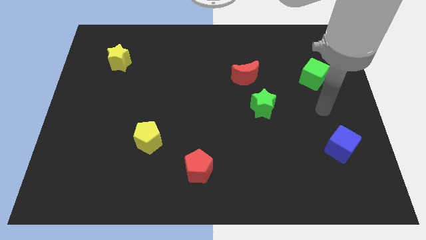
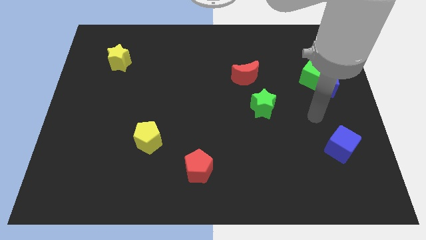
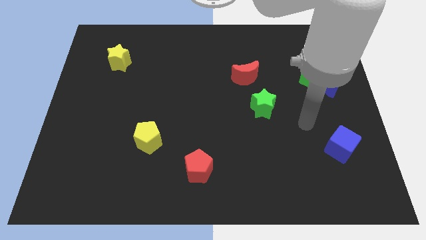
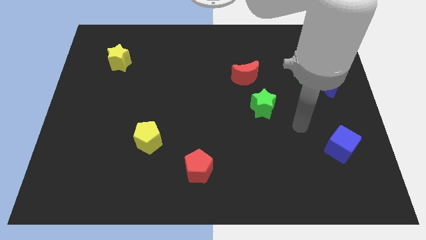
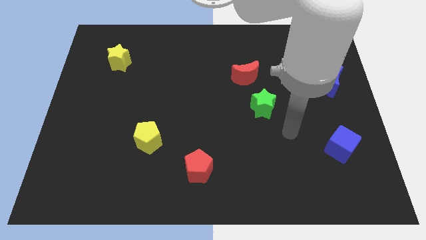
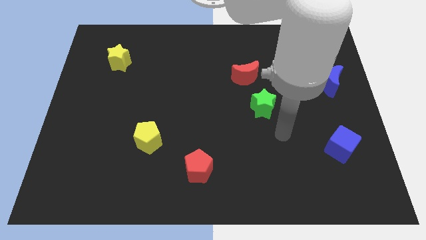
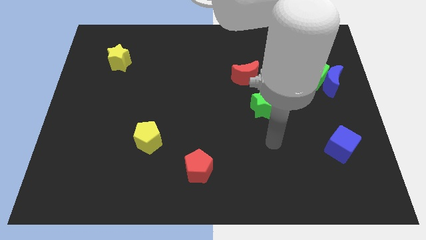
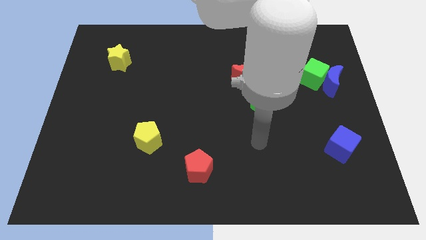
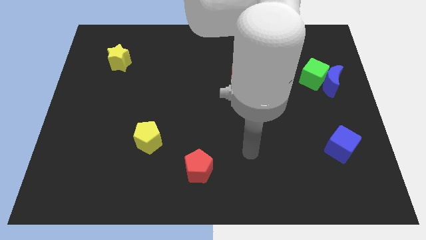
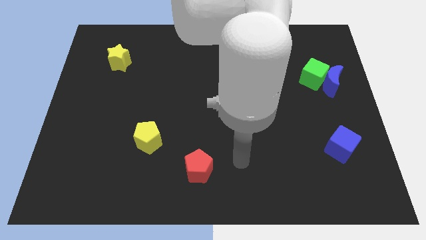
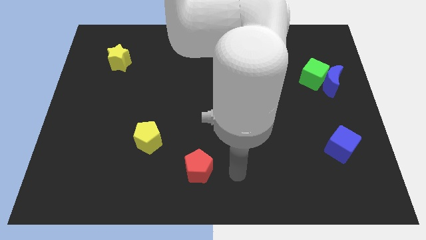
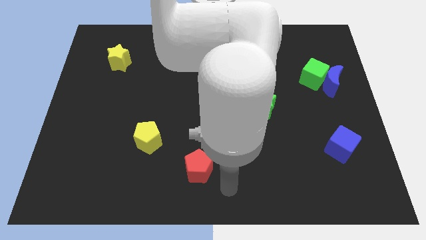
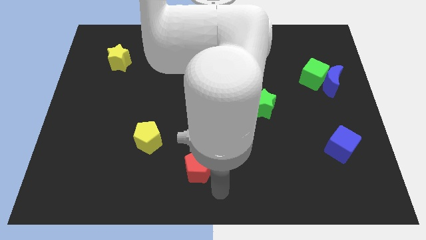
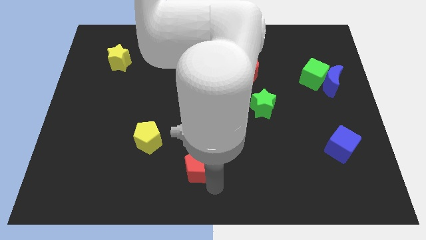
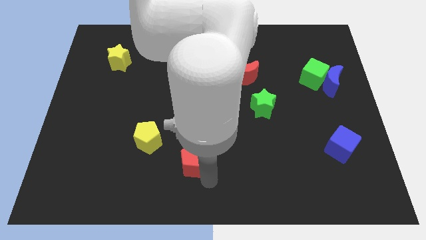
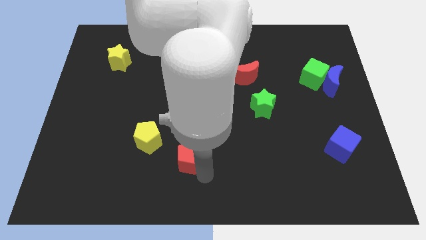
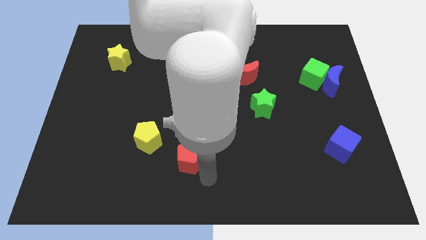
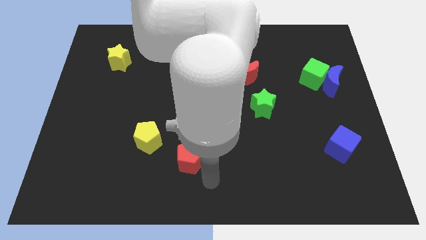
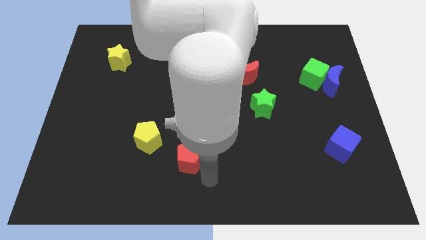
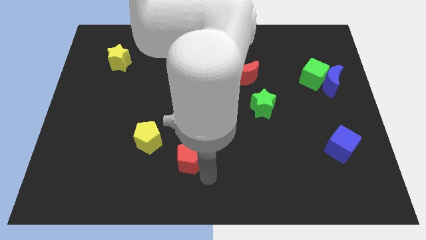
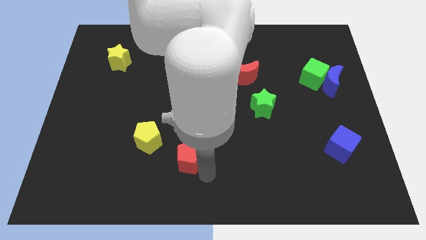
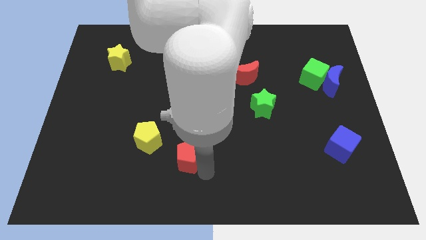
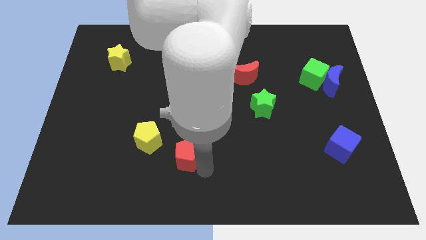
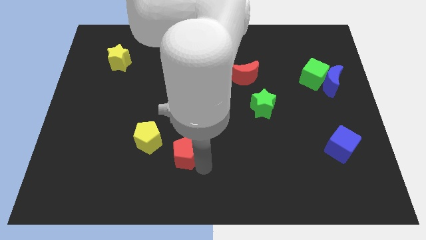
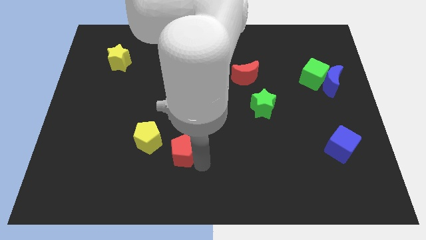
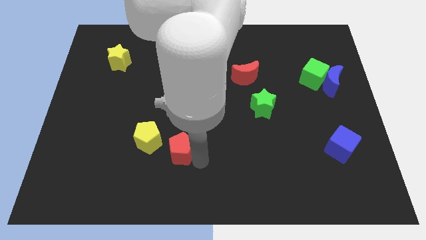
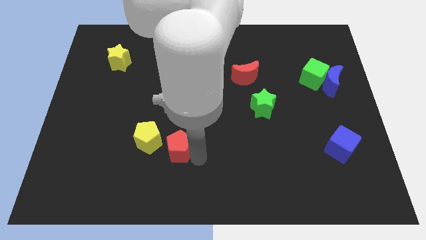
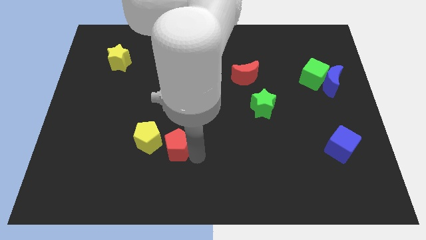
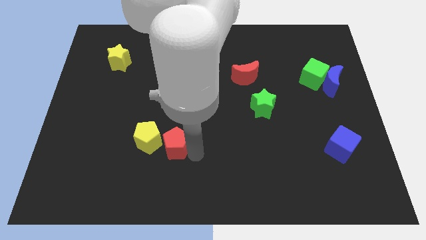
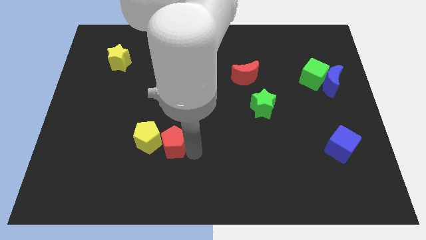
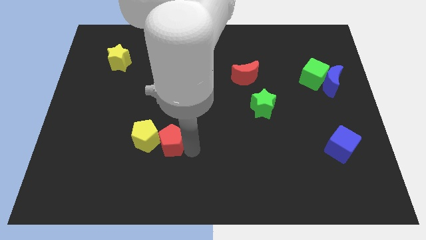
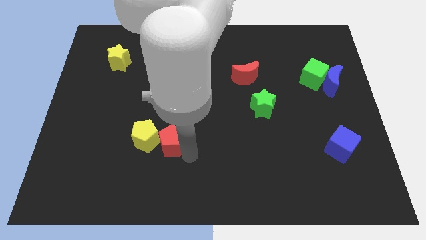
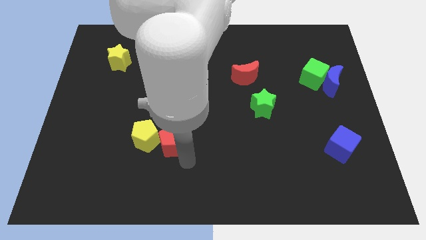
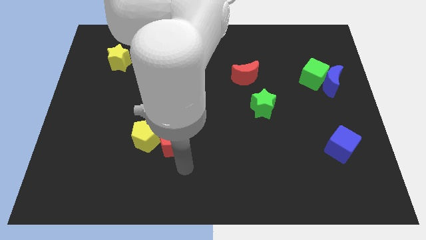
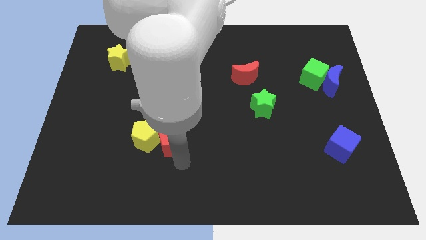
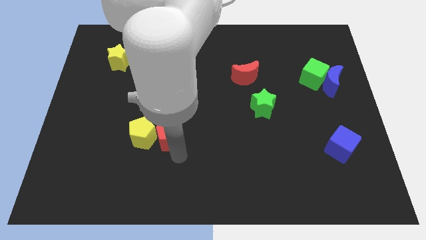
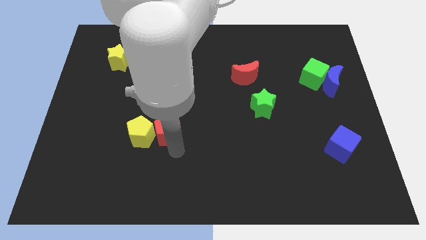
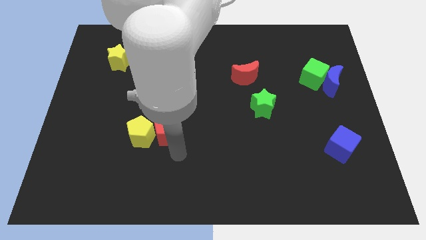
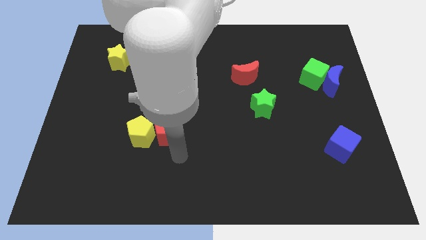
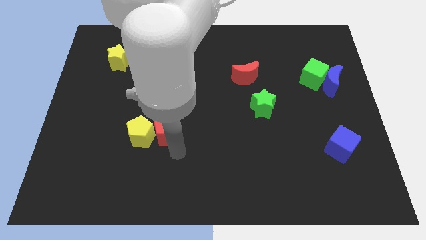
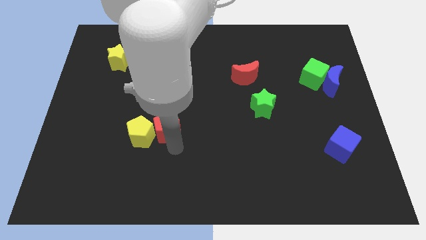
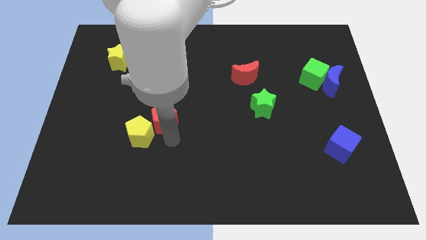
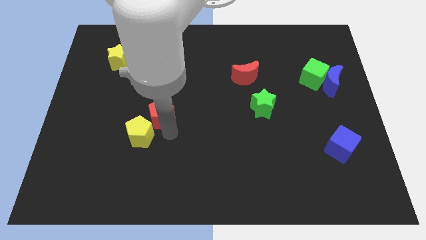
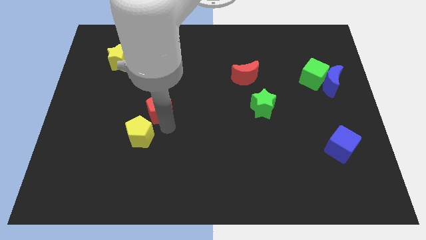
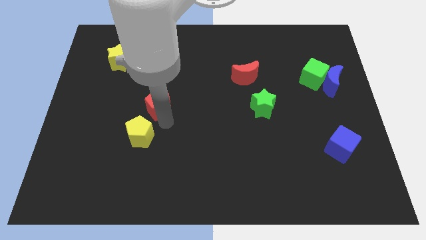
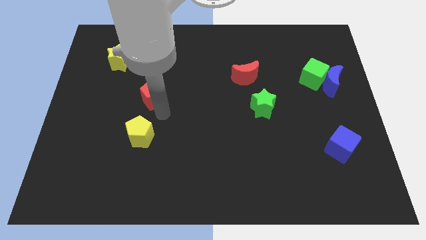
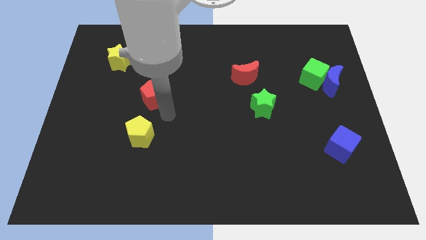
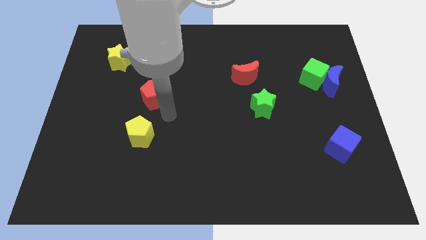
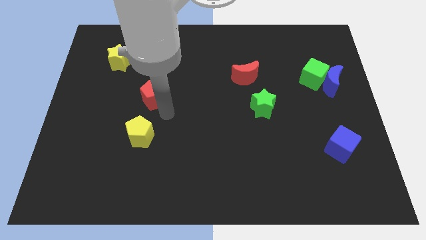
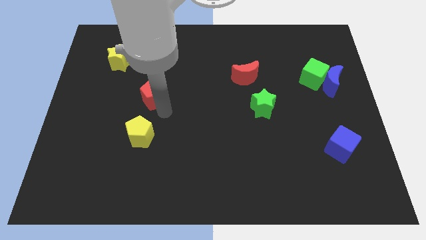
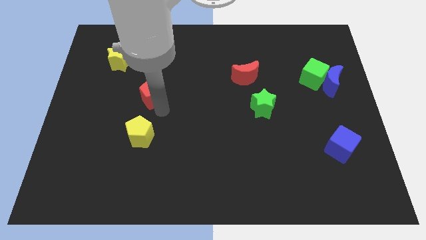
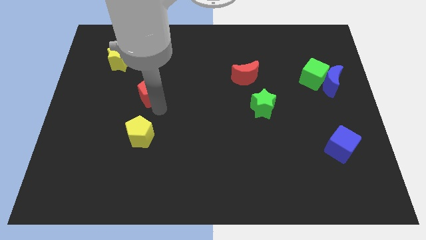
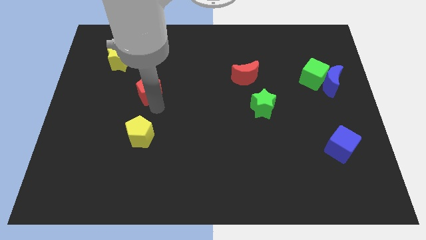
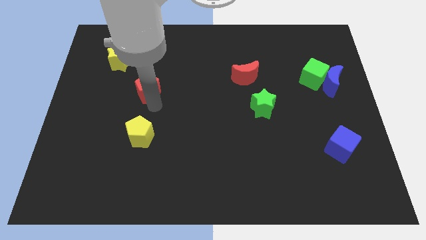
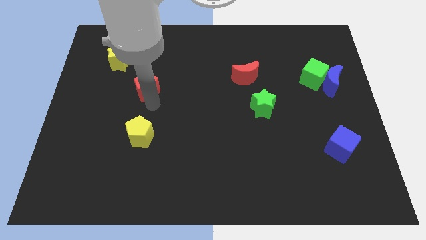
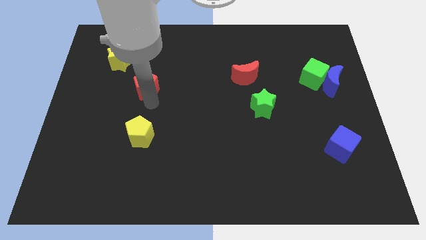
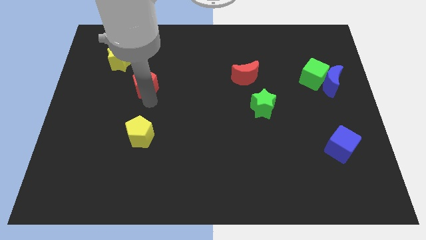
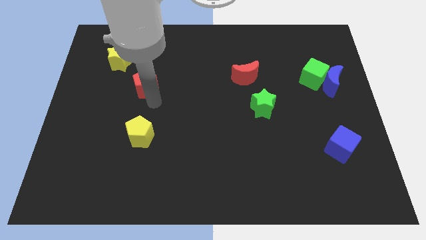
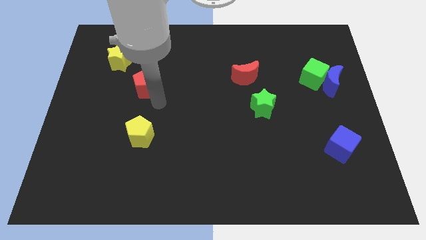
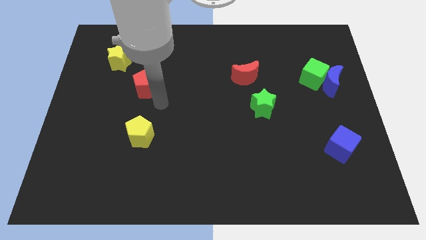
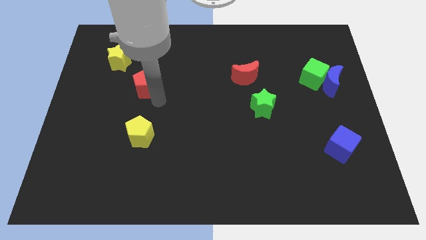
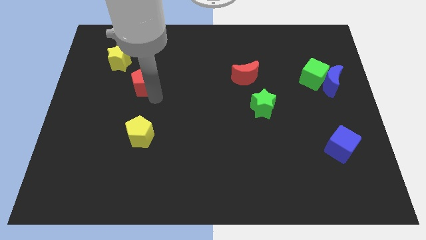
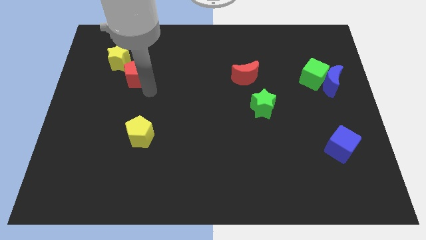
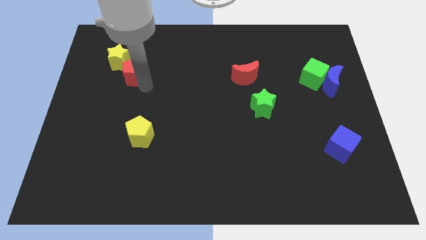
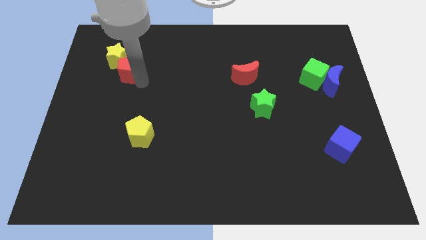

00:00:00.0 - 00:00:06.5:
move the red pentagon towards the yellow star
